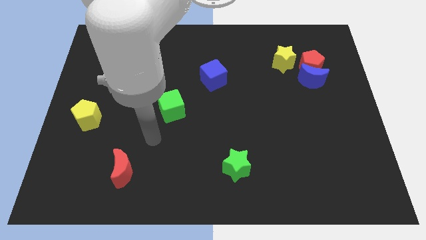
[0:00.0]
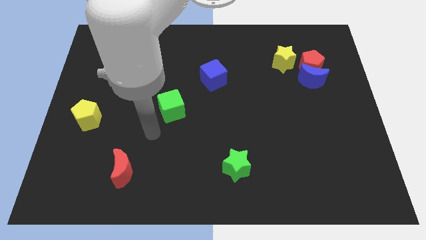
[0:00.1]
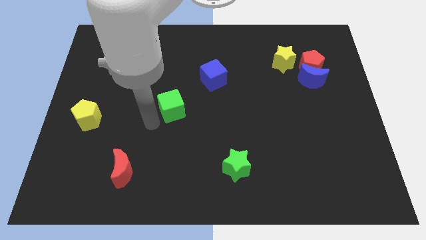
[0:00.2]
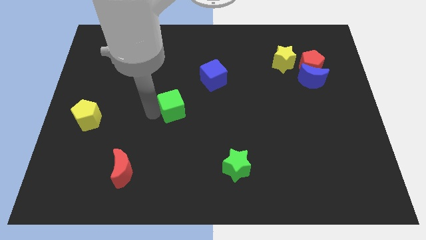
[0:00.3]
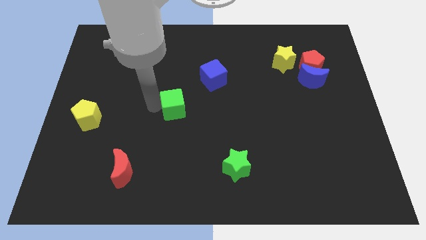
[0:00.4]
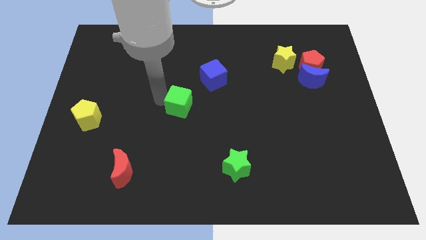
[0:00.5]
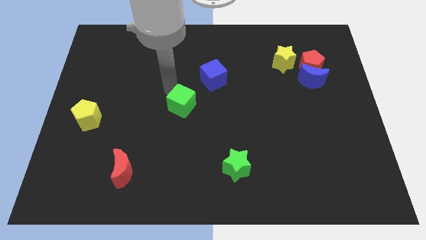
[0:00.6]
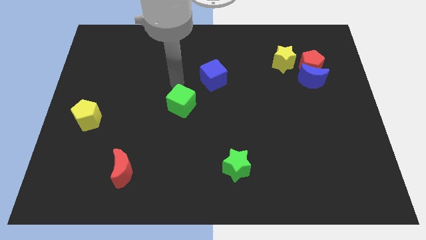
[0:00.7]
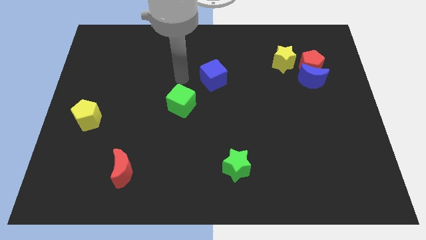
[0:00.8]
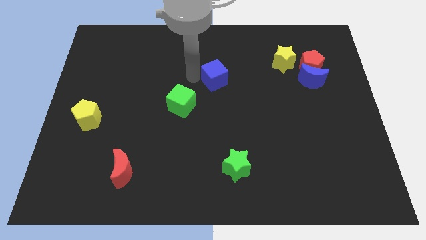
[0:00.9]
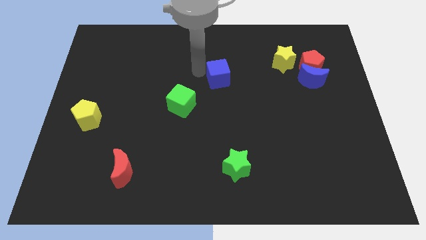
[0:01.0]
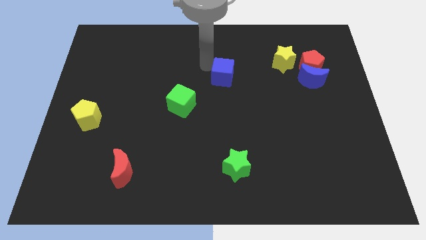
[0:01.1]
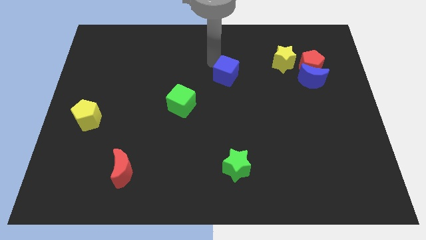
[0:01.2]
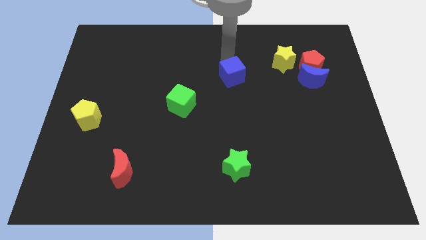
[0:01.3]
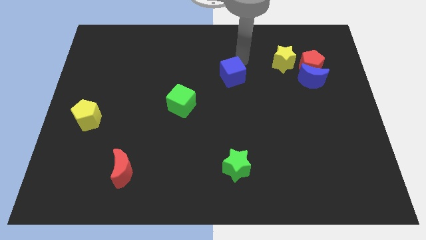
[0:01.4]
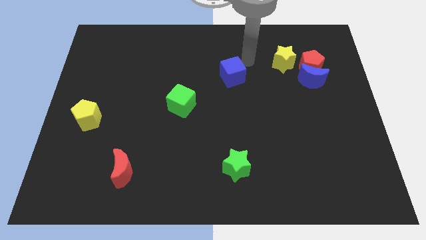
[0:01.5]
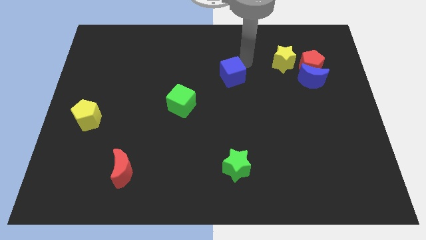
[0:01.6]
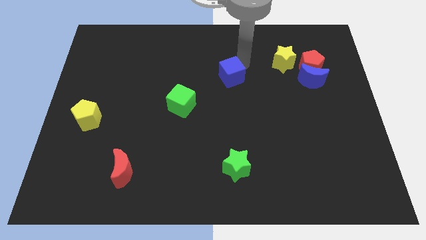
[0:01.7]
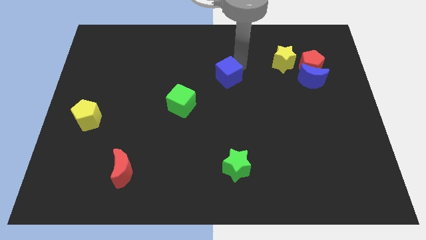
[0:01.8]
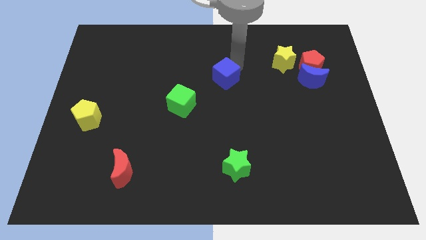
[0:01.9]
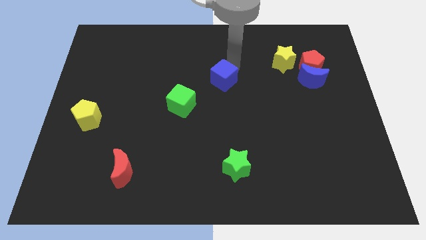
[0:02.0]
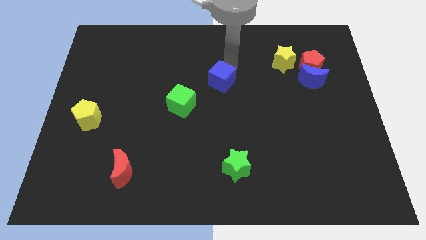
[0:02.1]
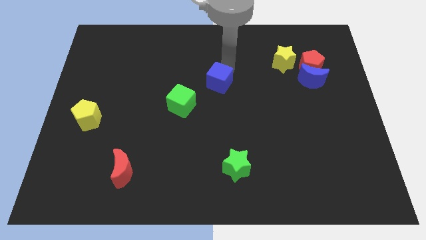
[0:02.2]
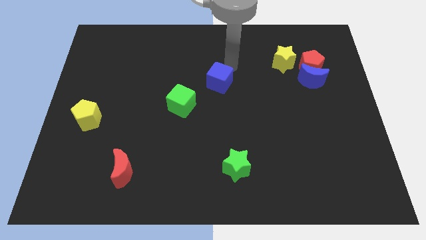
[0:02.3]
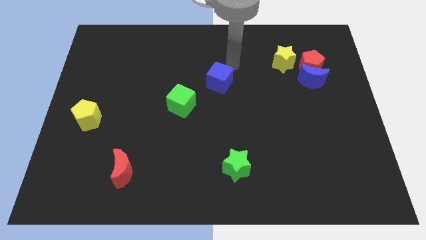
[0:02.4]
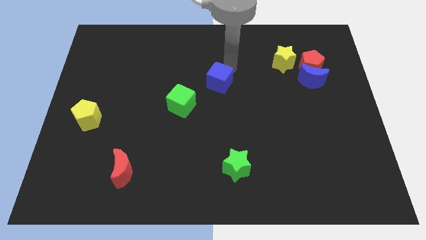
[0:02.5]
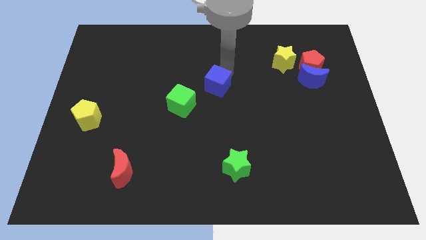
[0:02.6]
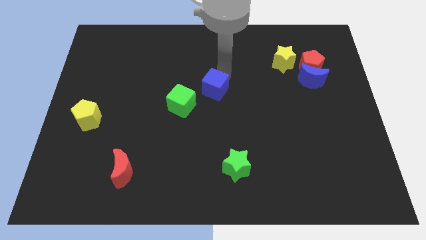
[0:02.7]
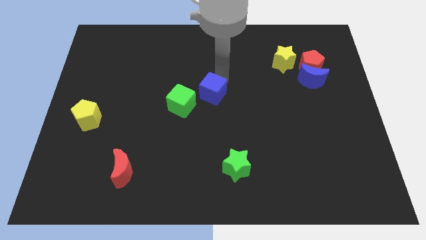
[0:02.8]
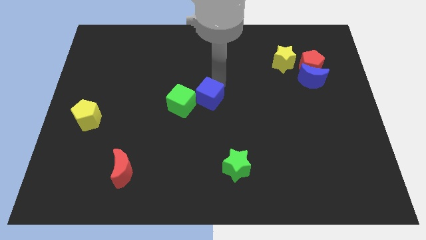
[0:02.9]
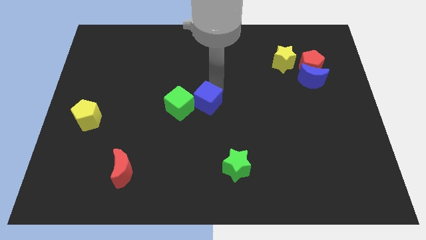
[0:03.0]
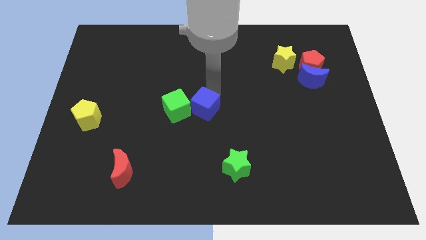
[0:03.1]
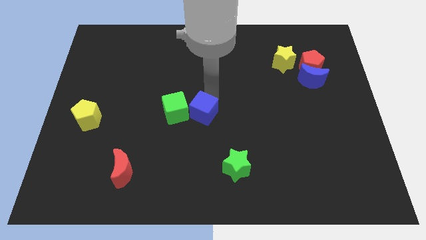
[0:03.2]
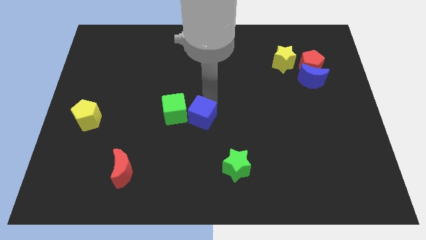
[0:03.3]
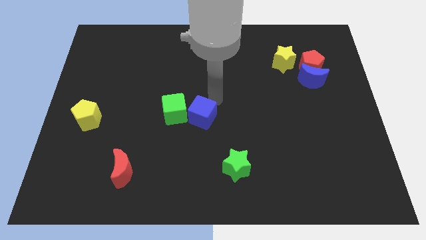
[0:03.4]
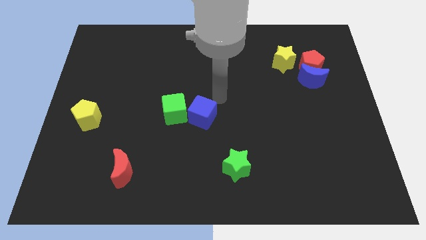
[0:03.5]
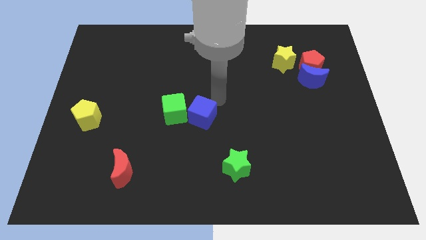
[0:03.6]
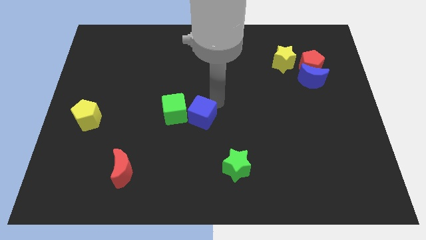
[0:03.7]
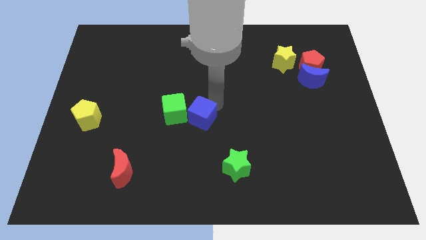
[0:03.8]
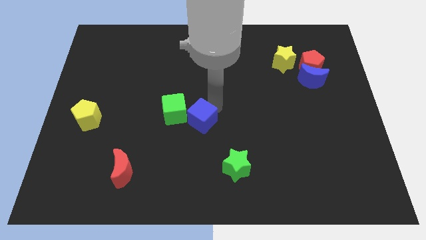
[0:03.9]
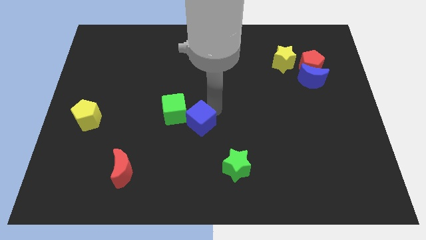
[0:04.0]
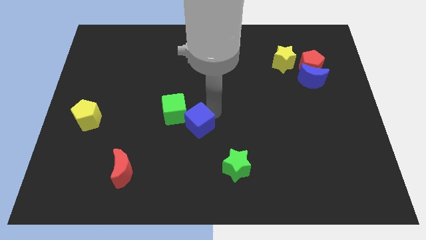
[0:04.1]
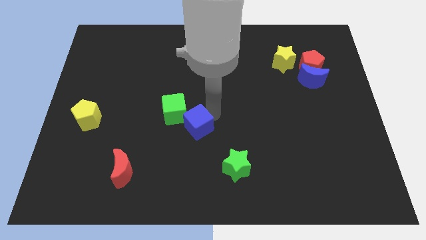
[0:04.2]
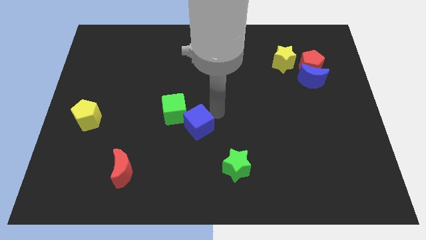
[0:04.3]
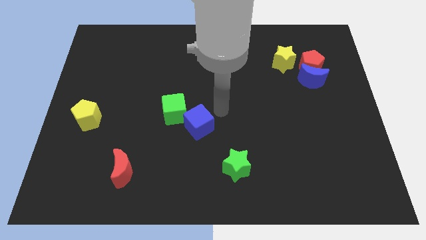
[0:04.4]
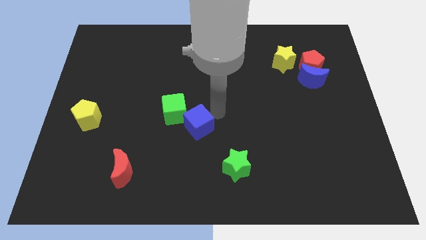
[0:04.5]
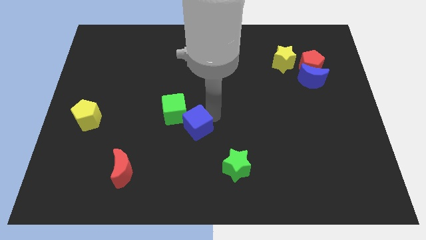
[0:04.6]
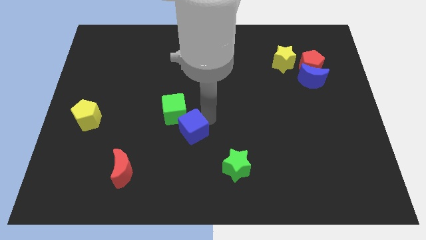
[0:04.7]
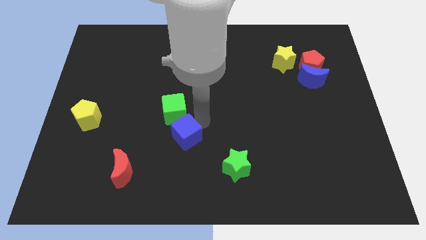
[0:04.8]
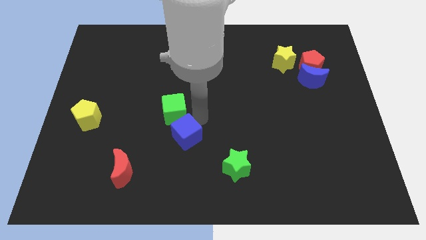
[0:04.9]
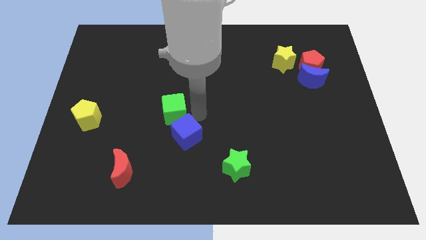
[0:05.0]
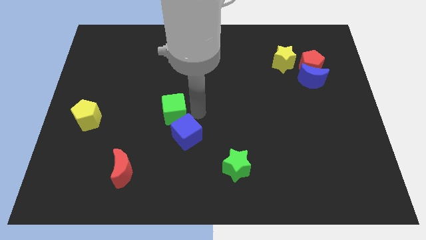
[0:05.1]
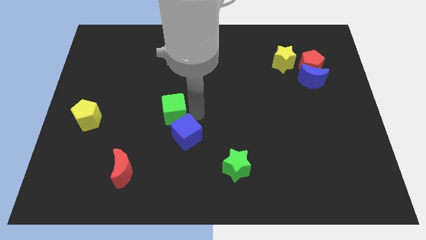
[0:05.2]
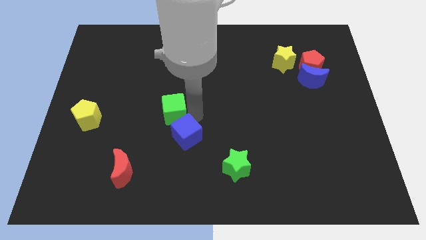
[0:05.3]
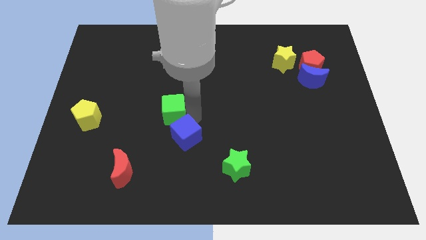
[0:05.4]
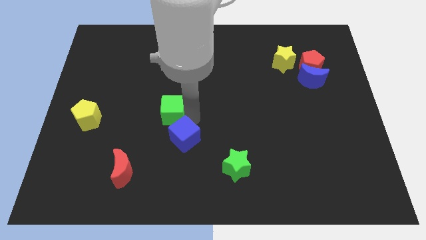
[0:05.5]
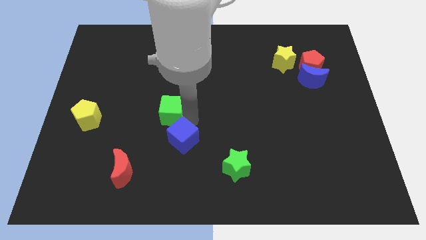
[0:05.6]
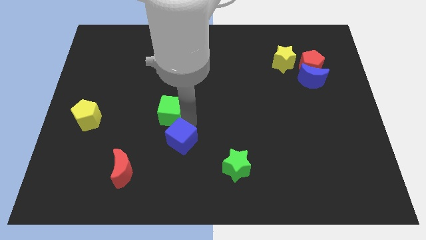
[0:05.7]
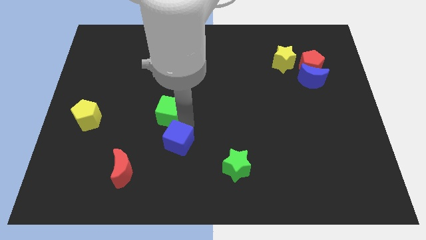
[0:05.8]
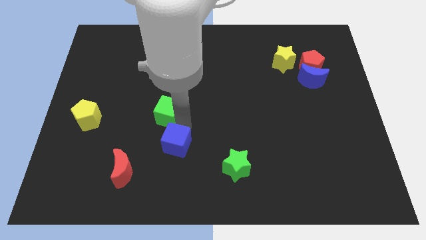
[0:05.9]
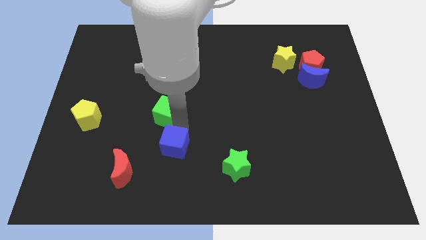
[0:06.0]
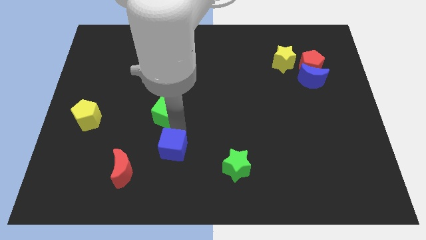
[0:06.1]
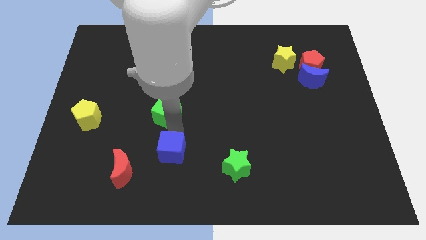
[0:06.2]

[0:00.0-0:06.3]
slide the blue cube to the right of the red moon

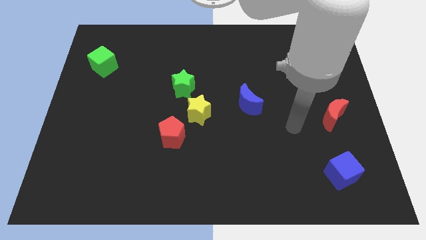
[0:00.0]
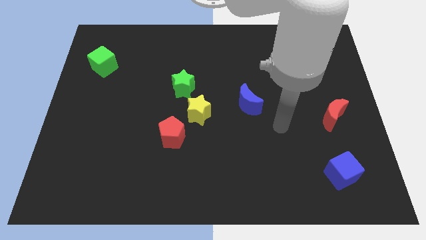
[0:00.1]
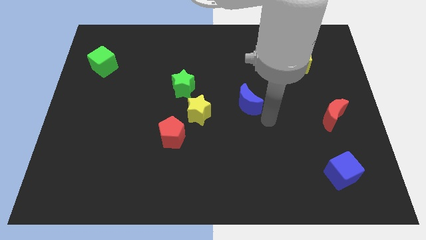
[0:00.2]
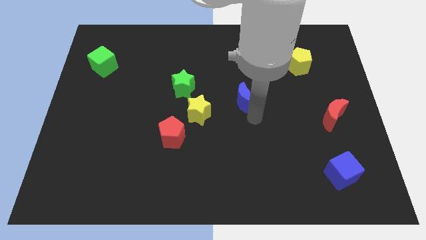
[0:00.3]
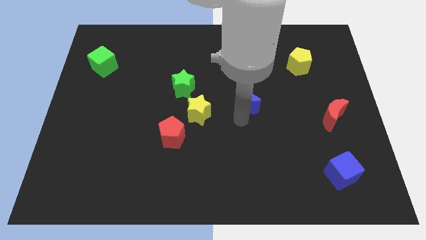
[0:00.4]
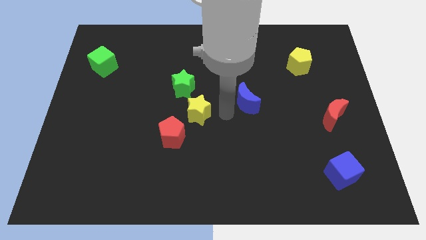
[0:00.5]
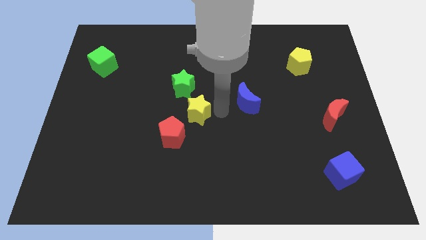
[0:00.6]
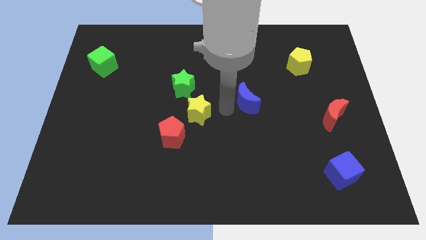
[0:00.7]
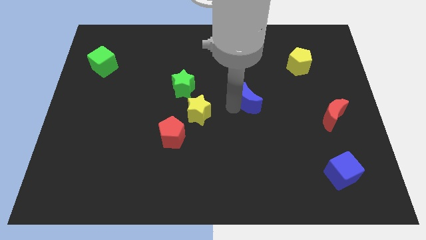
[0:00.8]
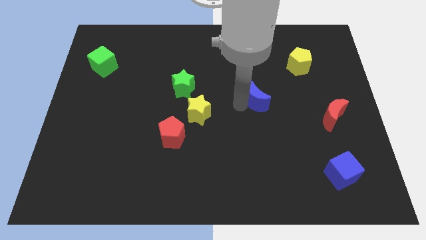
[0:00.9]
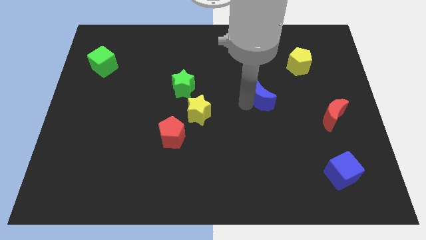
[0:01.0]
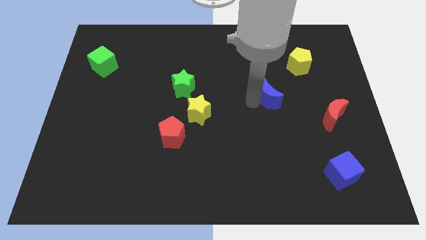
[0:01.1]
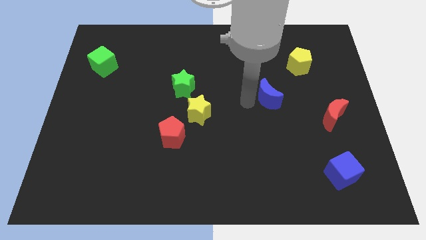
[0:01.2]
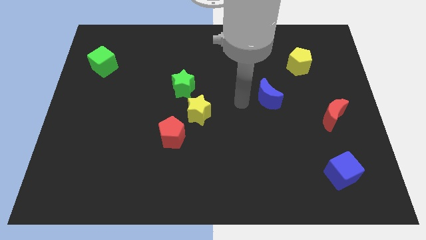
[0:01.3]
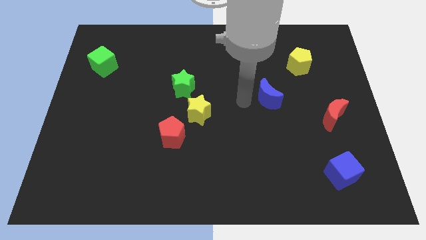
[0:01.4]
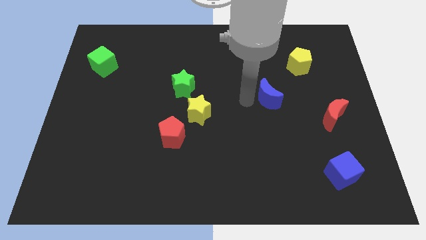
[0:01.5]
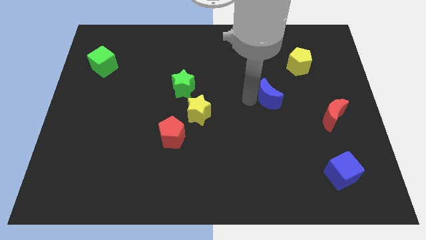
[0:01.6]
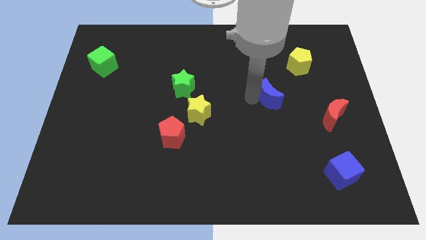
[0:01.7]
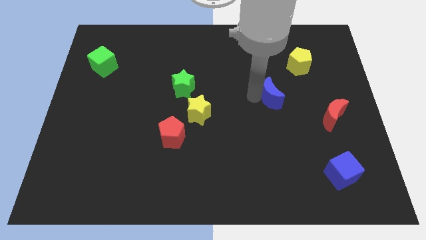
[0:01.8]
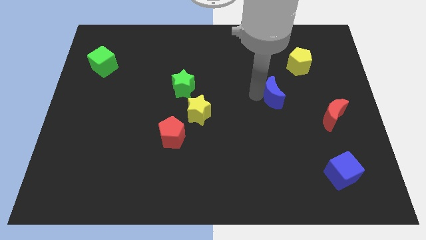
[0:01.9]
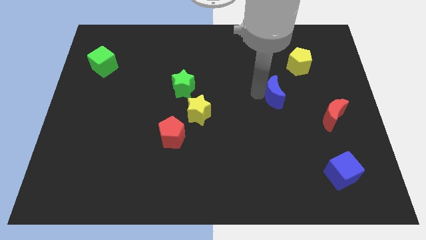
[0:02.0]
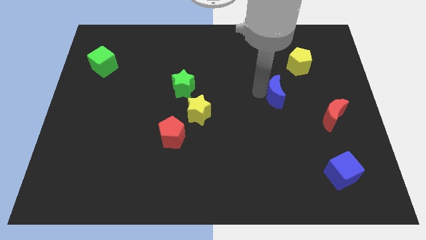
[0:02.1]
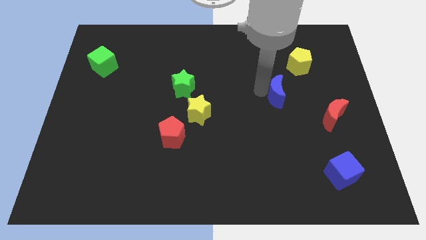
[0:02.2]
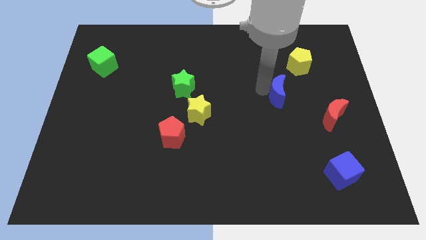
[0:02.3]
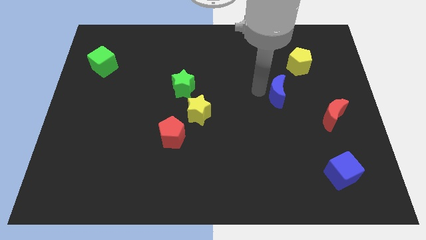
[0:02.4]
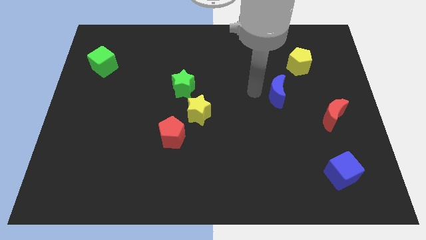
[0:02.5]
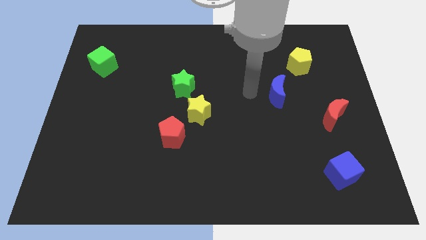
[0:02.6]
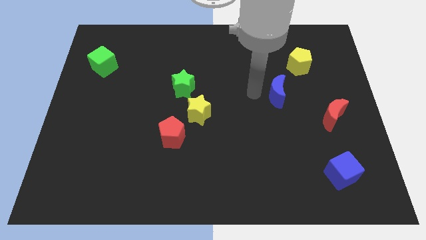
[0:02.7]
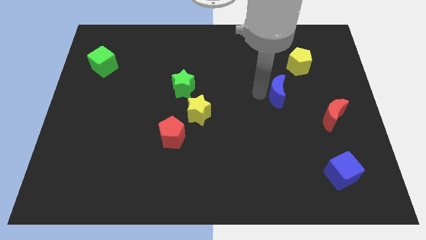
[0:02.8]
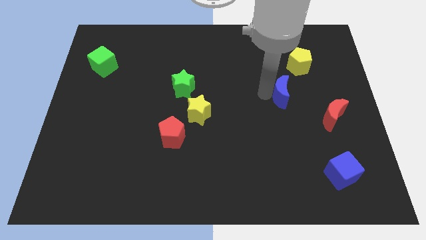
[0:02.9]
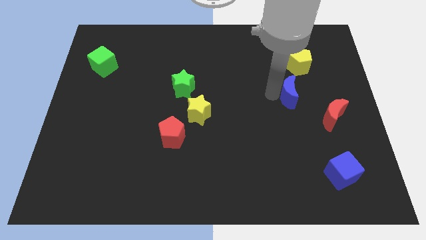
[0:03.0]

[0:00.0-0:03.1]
move the blue moon to the bottom of the yellow pentagon
